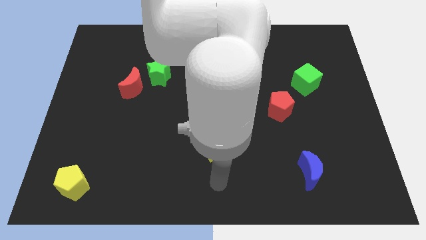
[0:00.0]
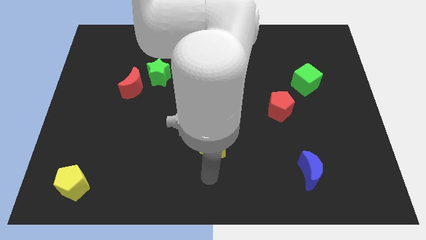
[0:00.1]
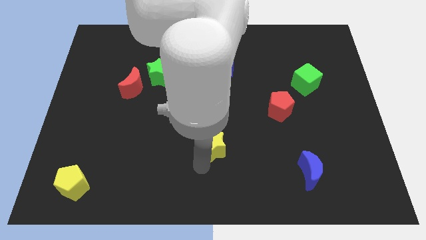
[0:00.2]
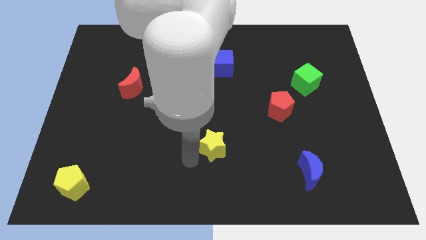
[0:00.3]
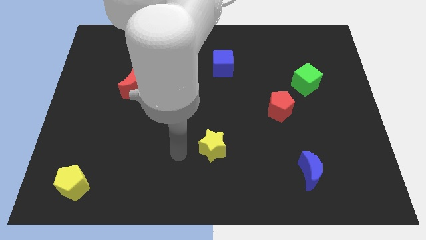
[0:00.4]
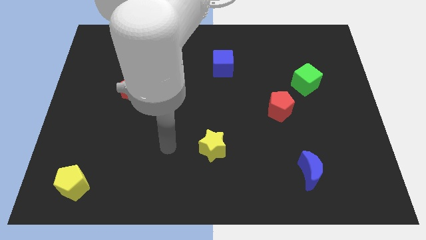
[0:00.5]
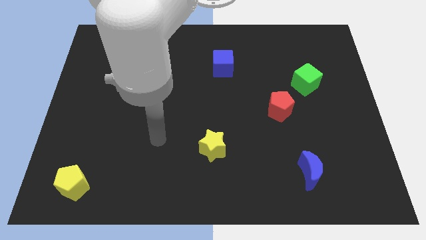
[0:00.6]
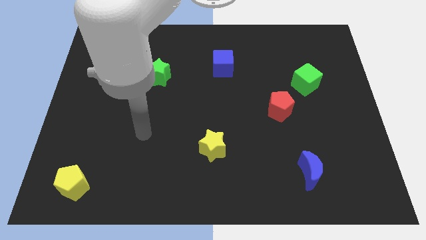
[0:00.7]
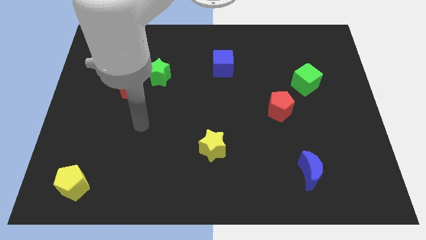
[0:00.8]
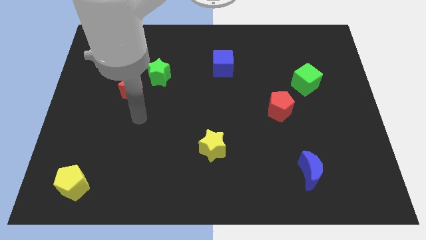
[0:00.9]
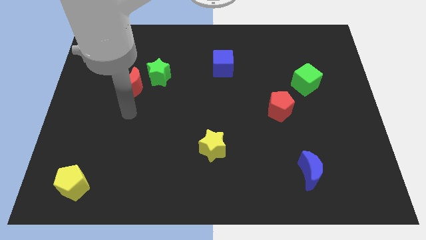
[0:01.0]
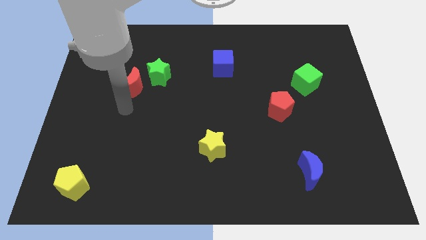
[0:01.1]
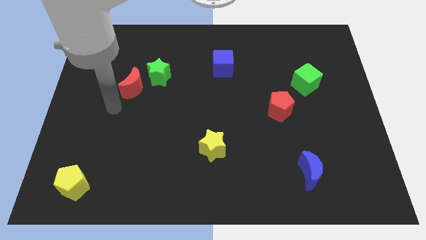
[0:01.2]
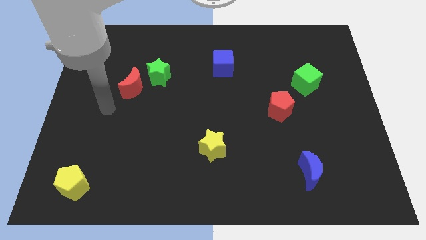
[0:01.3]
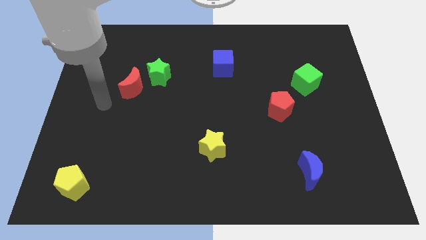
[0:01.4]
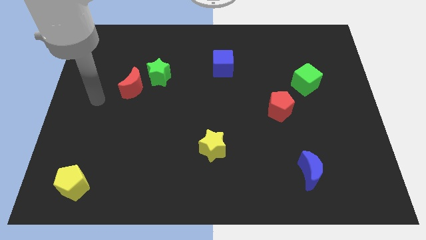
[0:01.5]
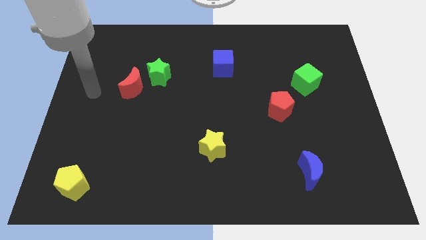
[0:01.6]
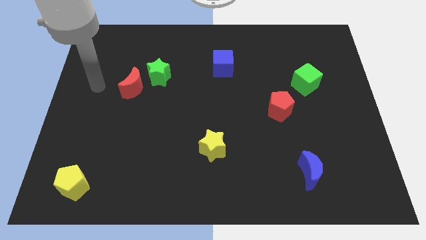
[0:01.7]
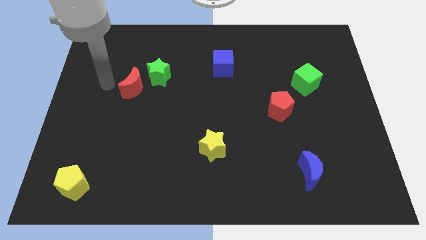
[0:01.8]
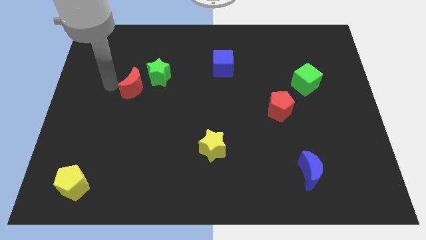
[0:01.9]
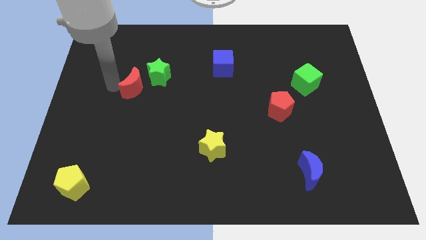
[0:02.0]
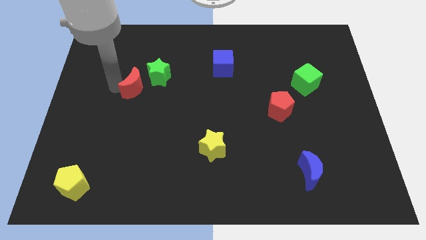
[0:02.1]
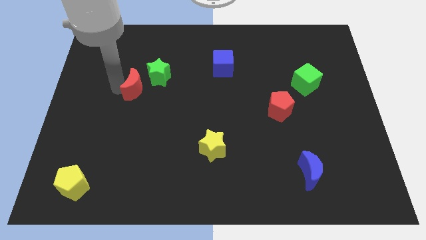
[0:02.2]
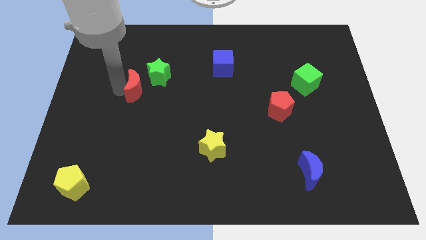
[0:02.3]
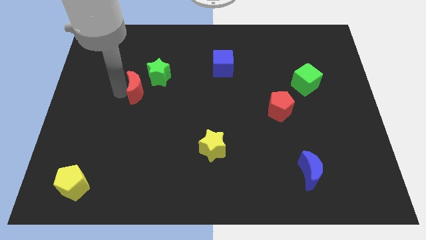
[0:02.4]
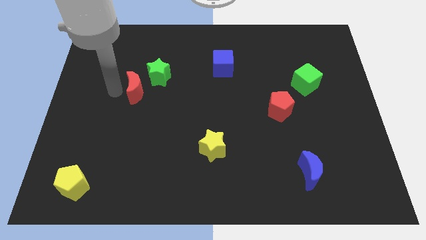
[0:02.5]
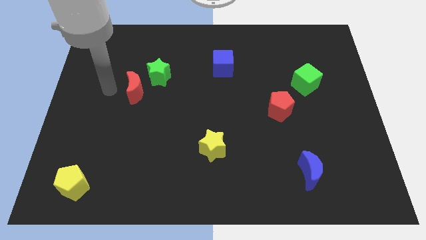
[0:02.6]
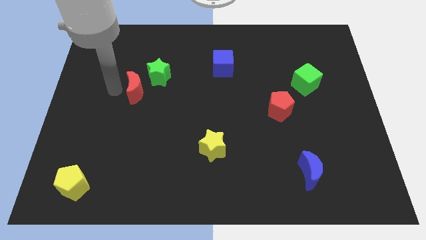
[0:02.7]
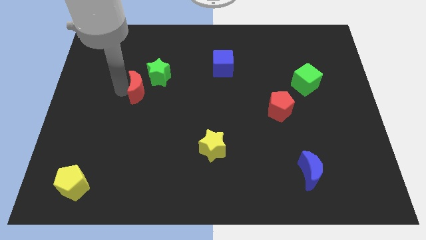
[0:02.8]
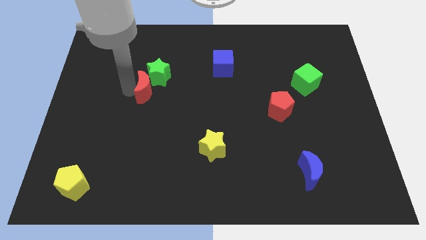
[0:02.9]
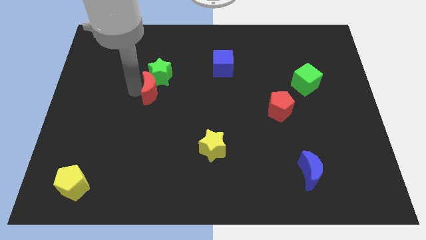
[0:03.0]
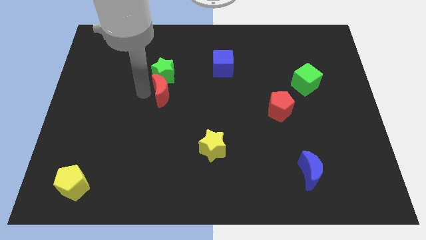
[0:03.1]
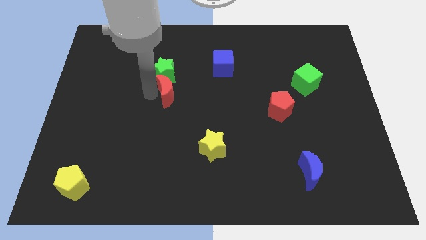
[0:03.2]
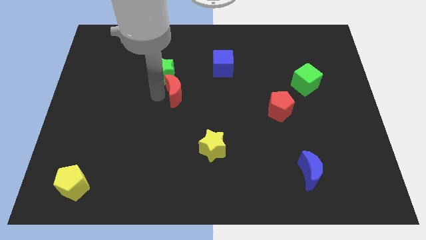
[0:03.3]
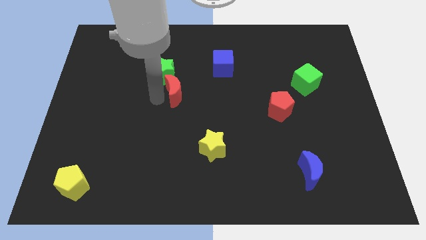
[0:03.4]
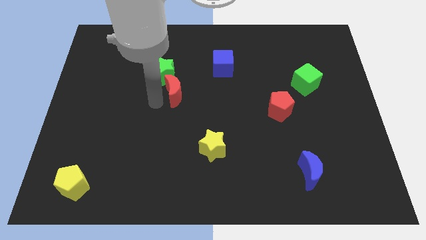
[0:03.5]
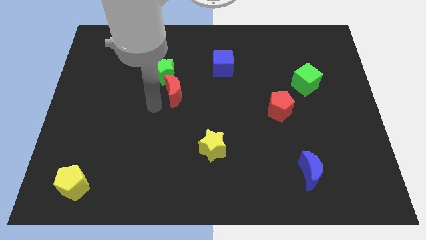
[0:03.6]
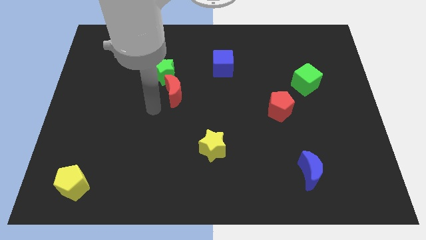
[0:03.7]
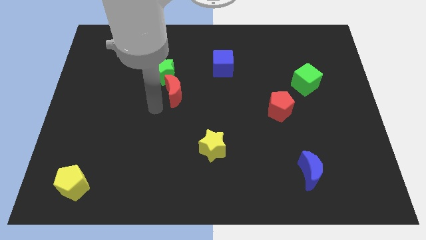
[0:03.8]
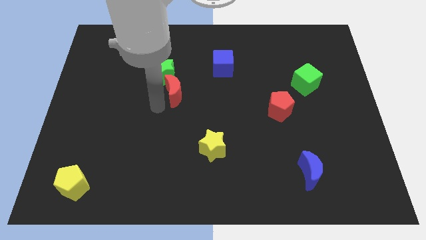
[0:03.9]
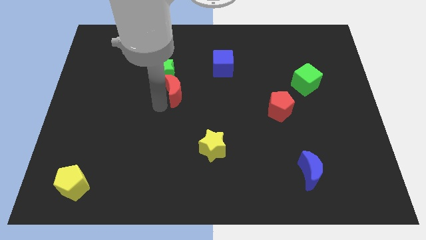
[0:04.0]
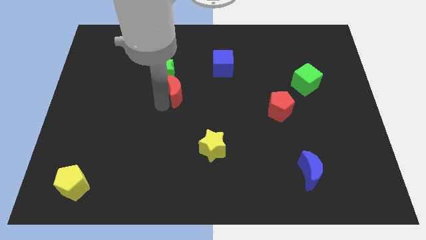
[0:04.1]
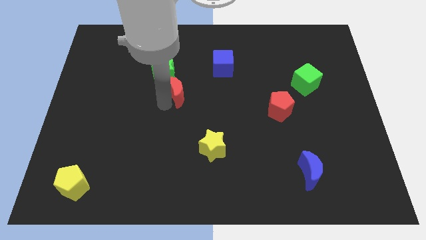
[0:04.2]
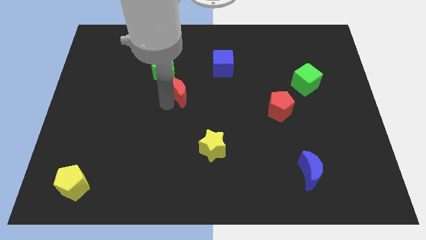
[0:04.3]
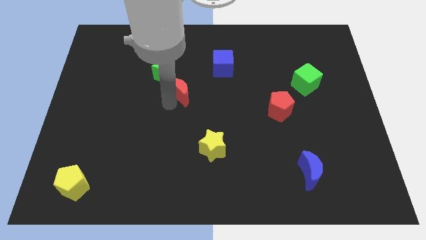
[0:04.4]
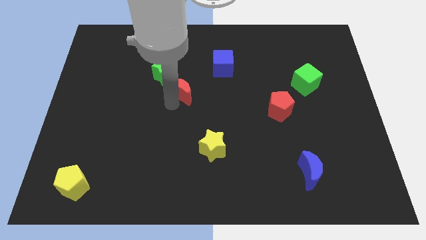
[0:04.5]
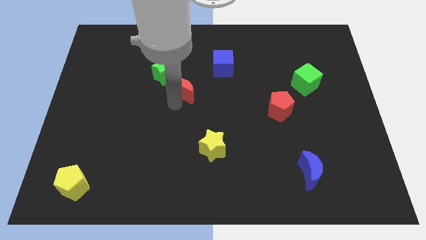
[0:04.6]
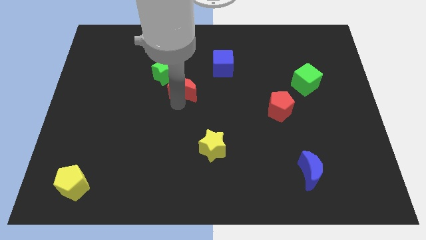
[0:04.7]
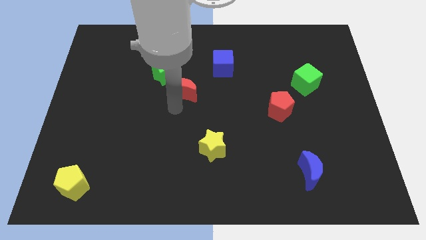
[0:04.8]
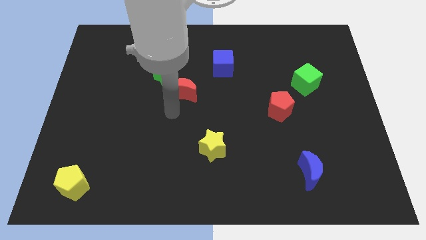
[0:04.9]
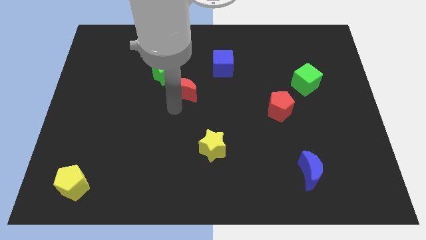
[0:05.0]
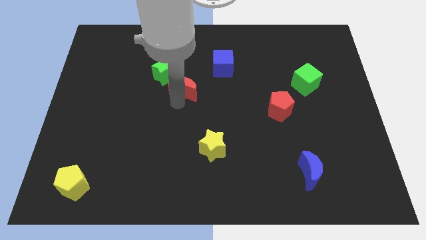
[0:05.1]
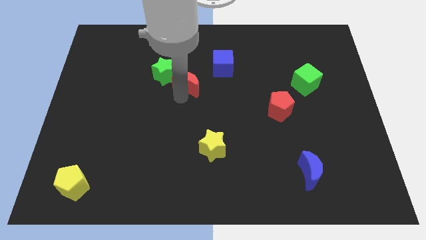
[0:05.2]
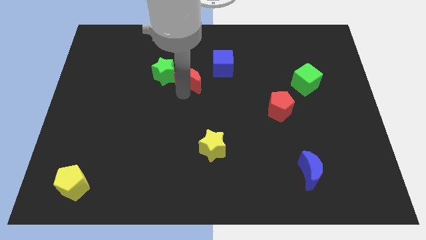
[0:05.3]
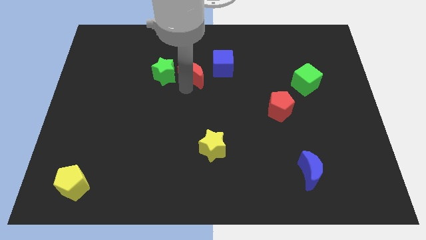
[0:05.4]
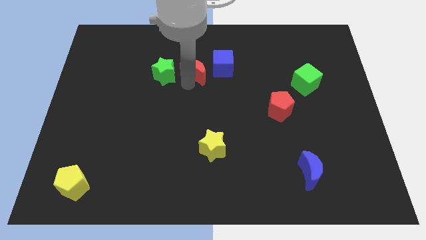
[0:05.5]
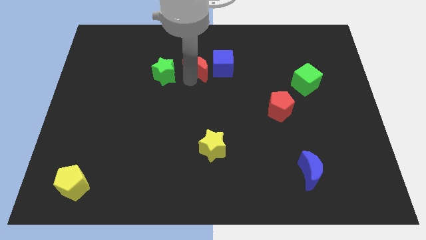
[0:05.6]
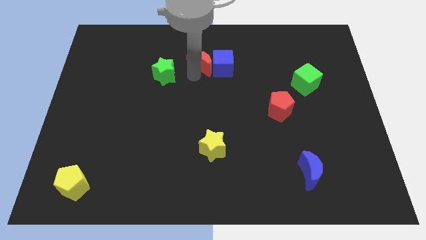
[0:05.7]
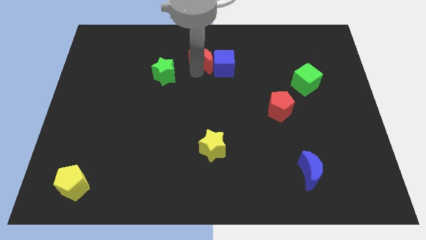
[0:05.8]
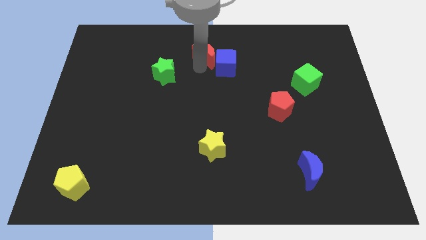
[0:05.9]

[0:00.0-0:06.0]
push the red moon to the top

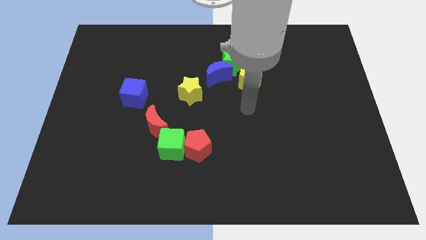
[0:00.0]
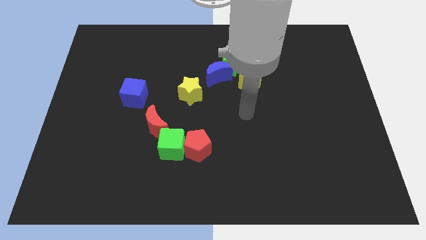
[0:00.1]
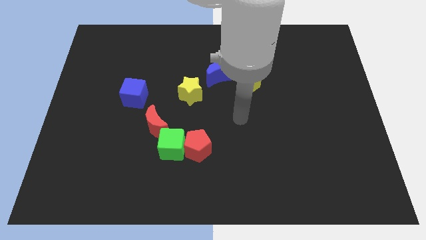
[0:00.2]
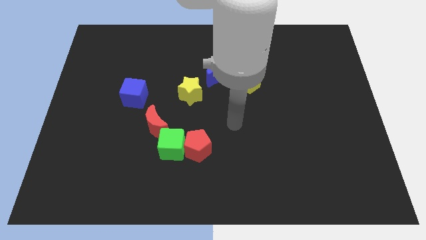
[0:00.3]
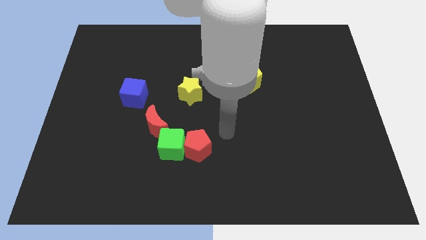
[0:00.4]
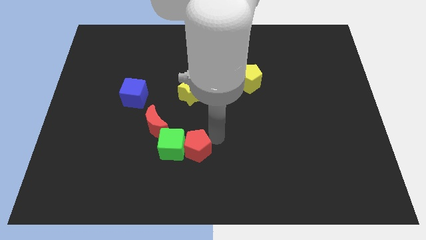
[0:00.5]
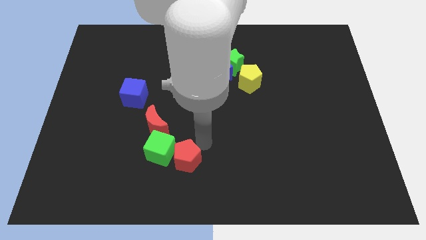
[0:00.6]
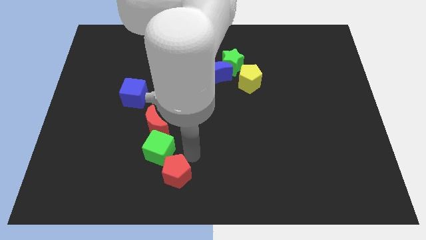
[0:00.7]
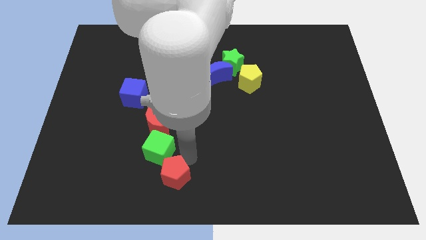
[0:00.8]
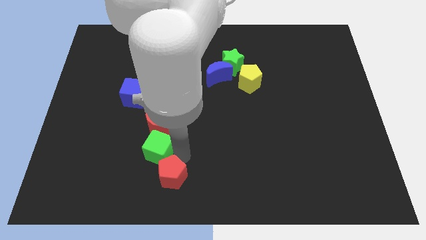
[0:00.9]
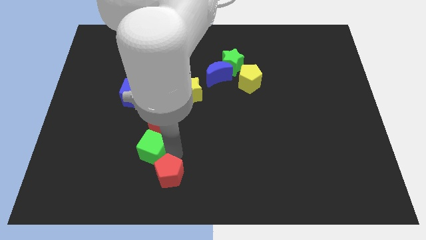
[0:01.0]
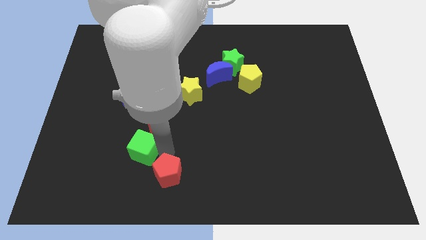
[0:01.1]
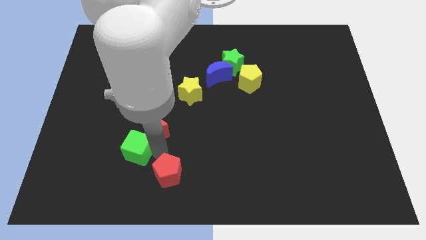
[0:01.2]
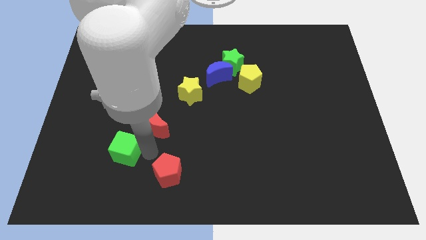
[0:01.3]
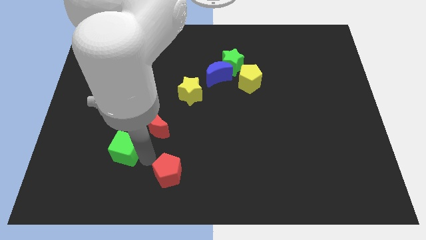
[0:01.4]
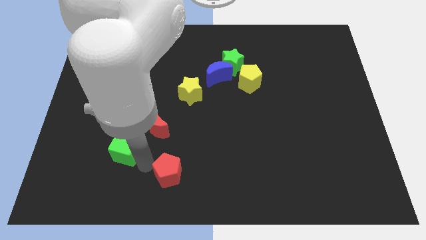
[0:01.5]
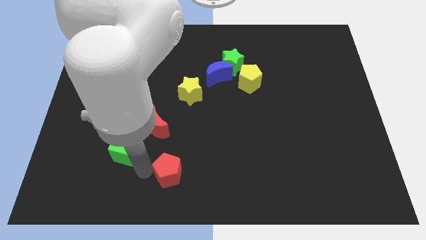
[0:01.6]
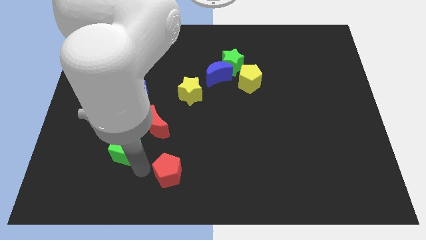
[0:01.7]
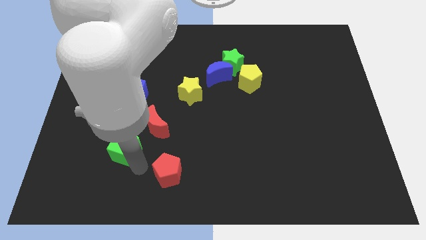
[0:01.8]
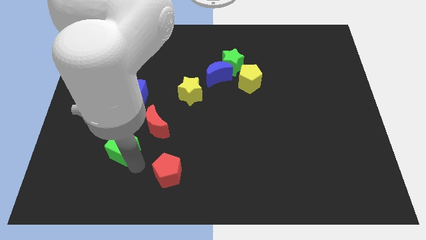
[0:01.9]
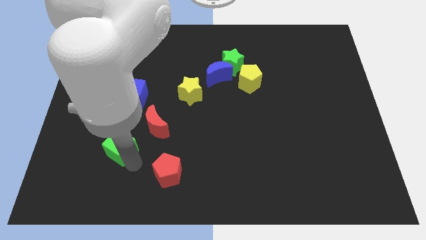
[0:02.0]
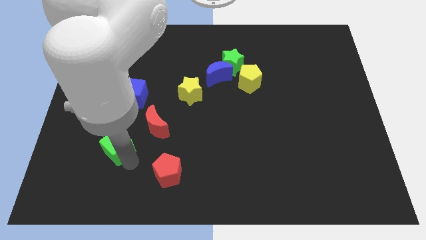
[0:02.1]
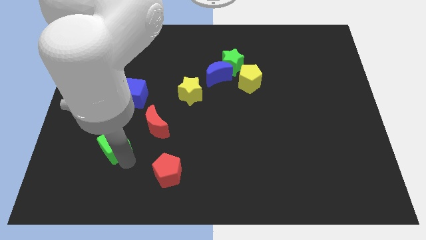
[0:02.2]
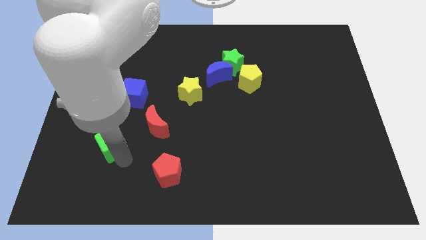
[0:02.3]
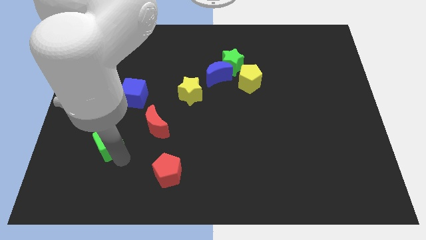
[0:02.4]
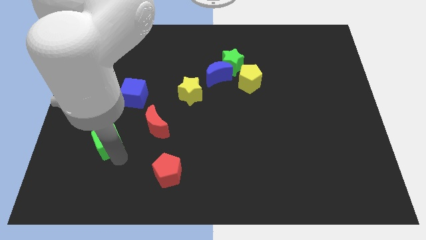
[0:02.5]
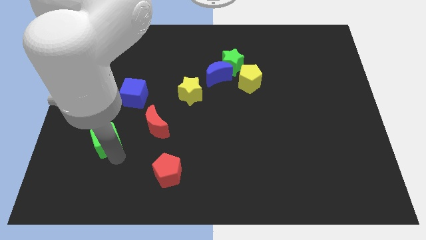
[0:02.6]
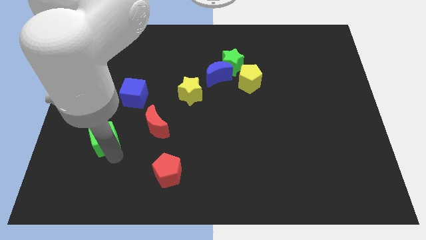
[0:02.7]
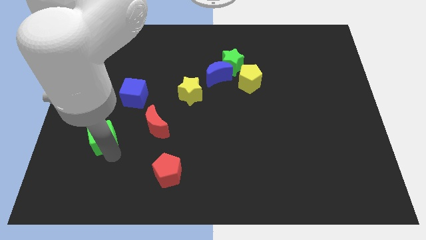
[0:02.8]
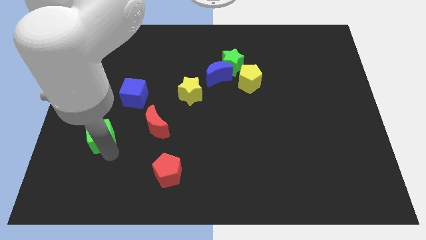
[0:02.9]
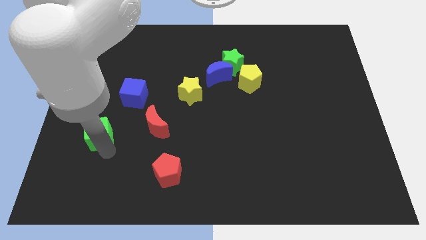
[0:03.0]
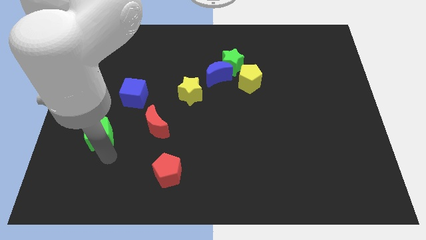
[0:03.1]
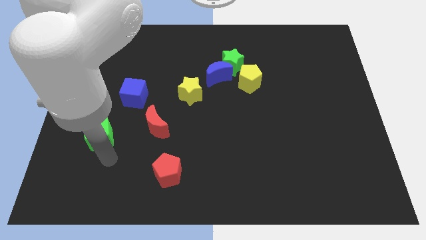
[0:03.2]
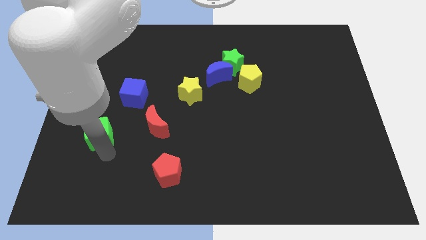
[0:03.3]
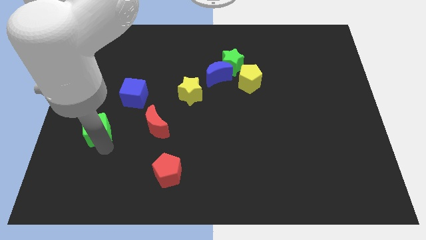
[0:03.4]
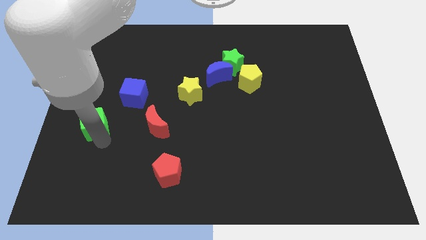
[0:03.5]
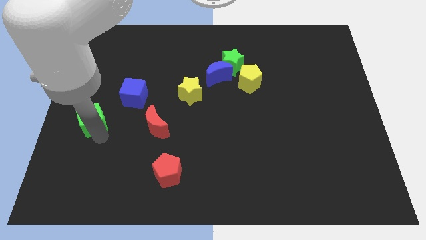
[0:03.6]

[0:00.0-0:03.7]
slide the green cube to the left side
